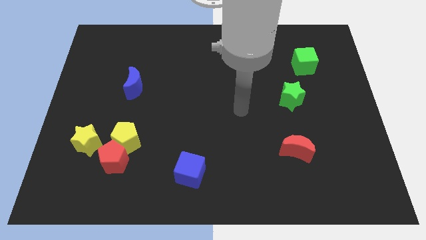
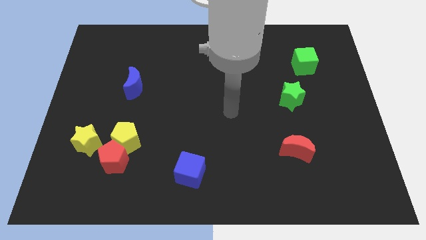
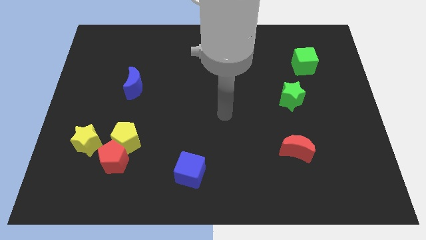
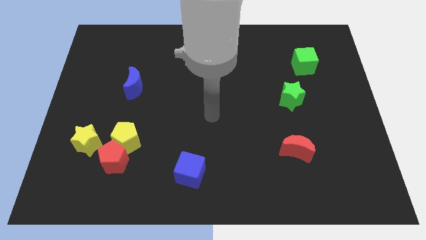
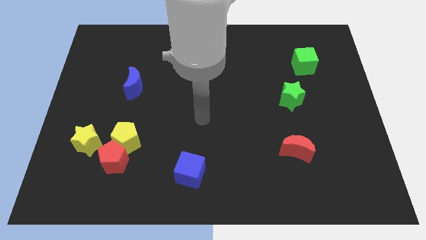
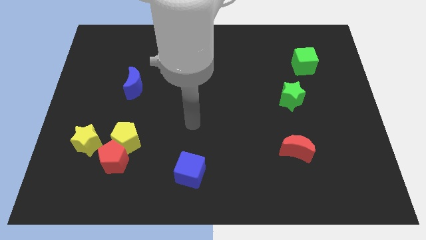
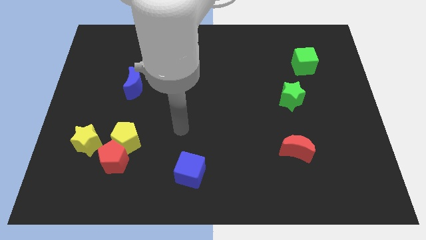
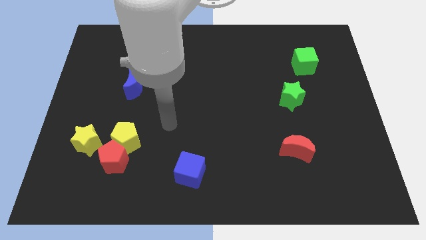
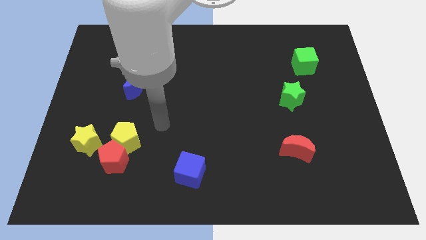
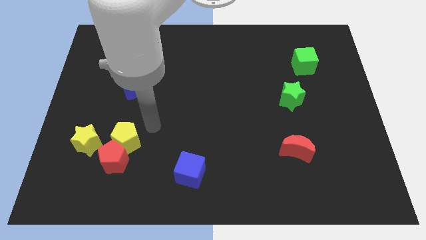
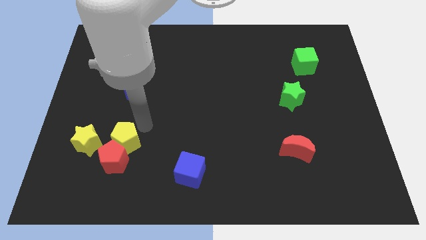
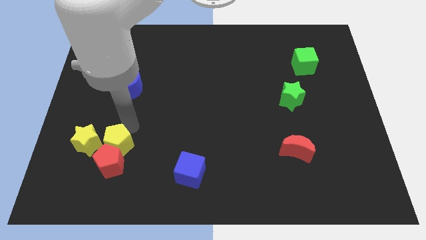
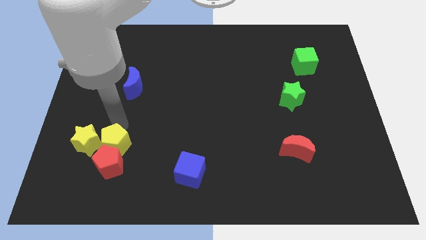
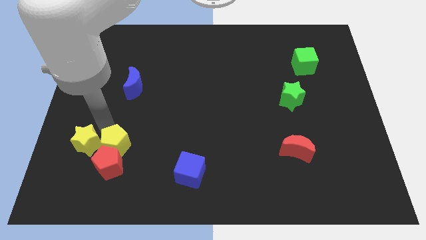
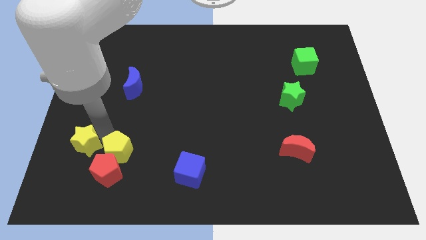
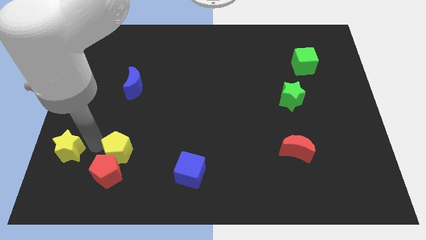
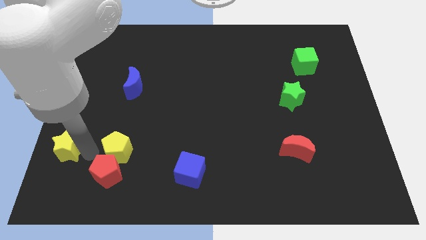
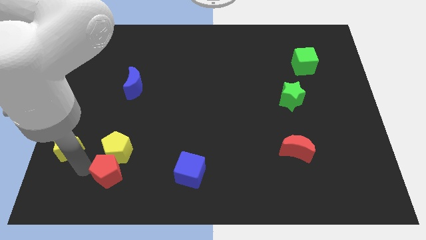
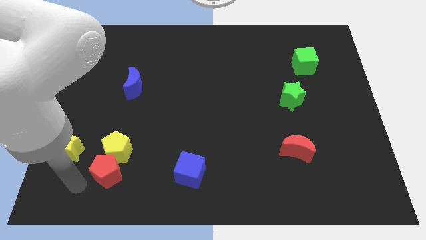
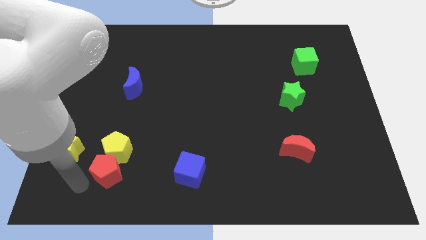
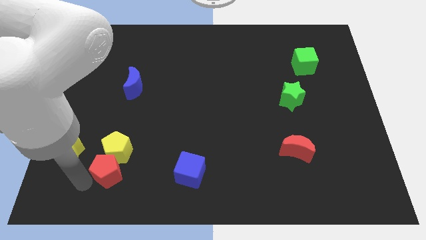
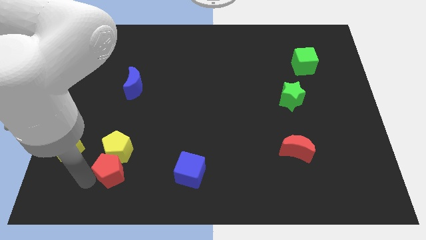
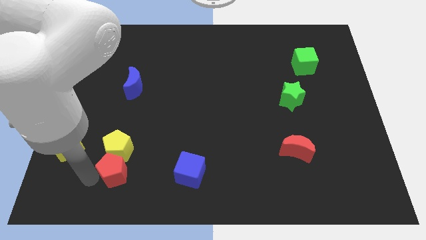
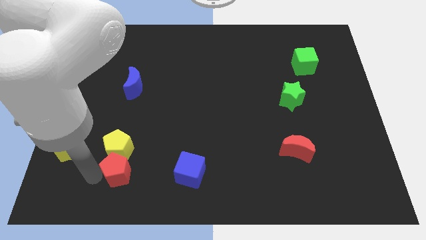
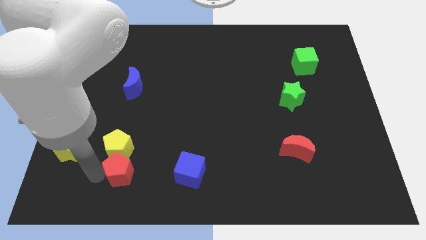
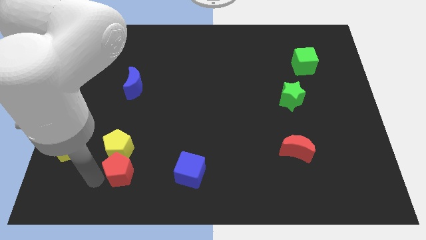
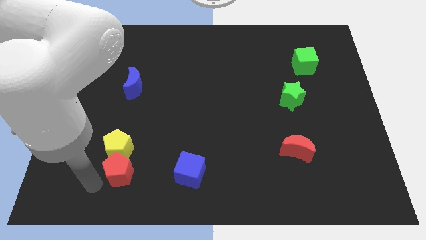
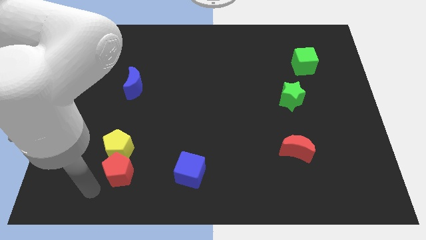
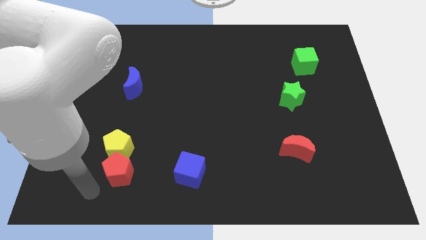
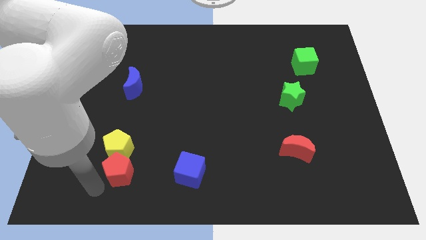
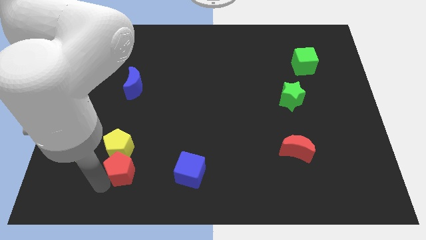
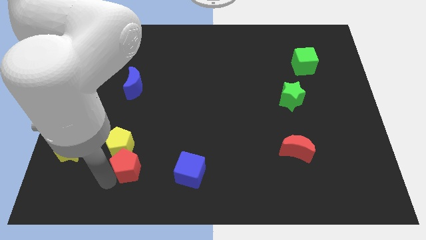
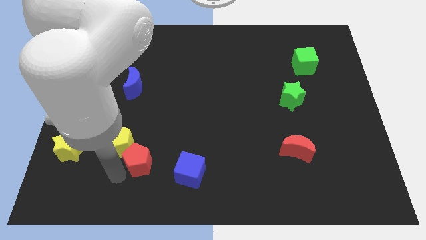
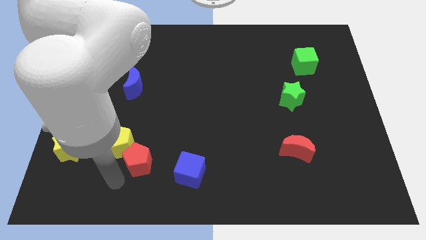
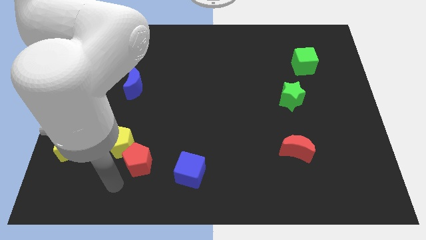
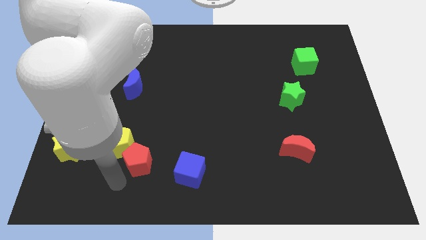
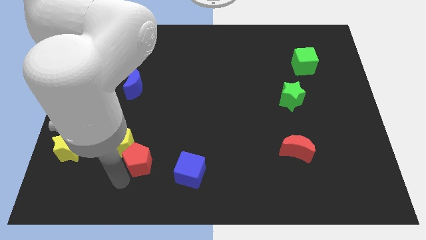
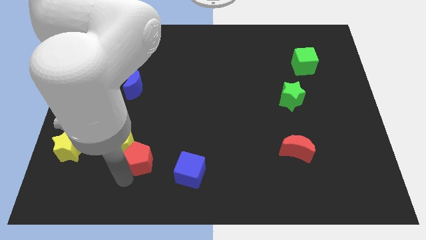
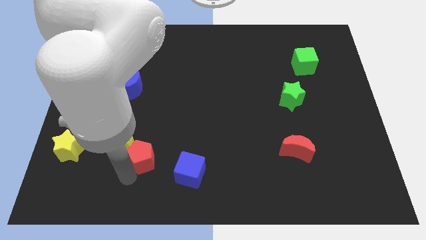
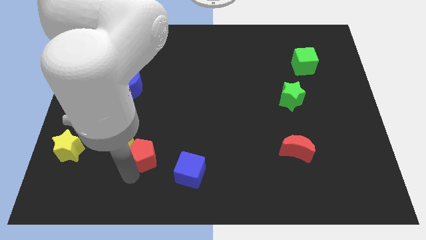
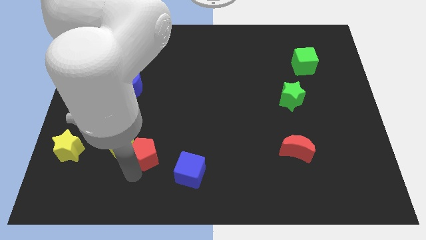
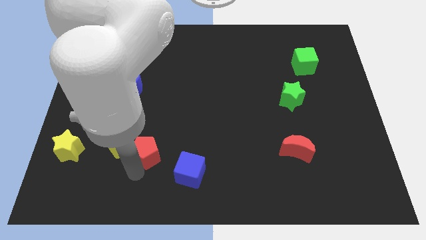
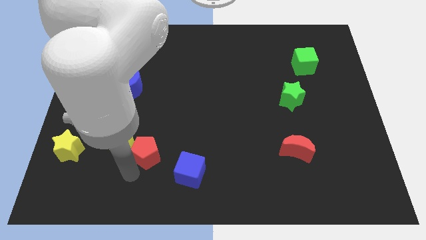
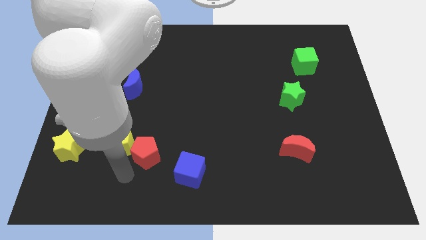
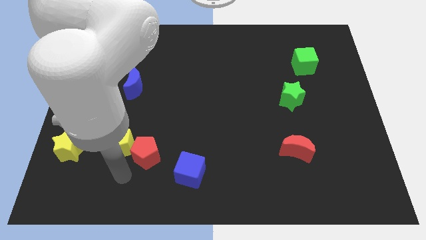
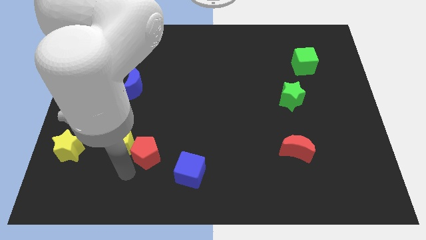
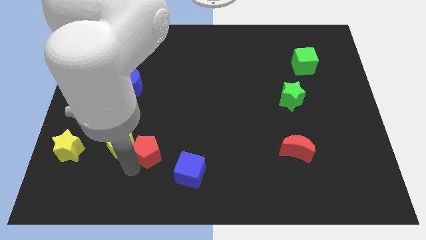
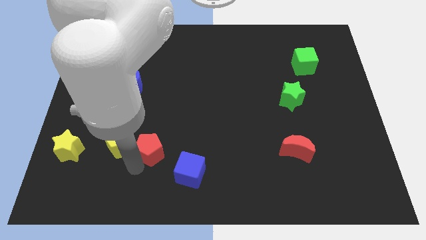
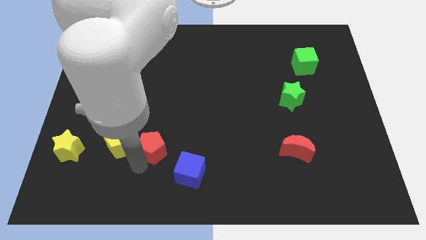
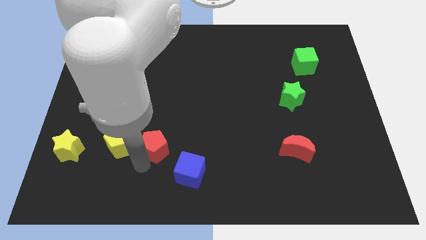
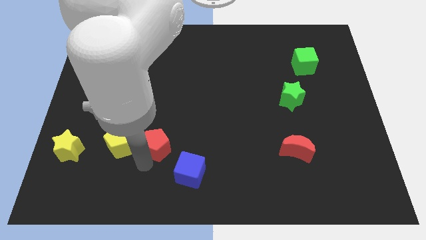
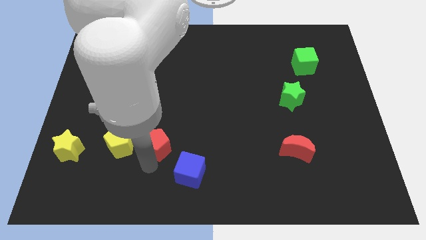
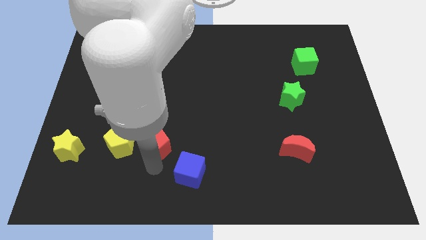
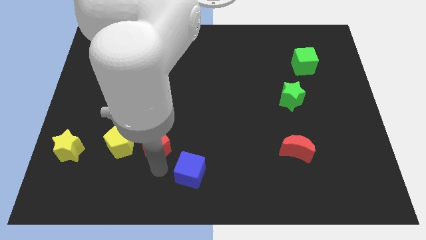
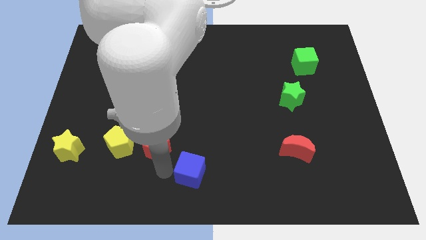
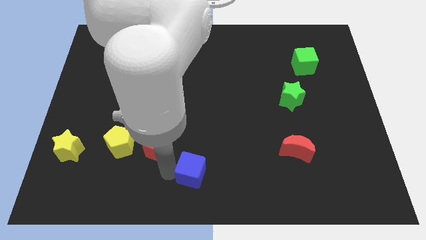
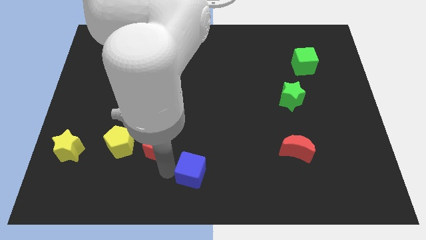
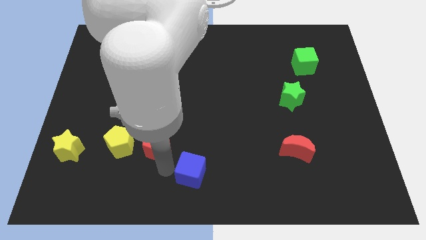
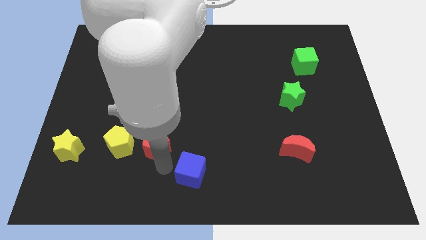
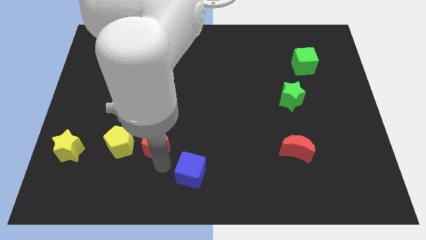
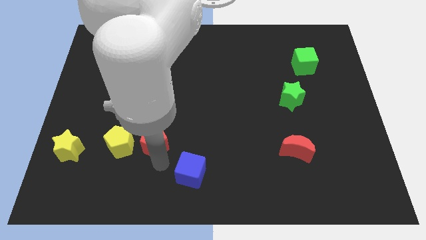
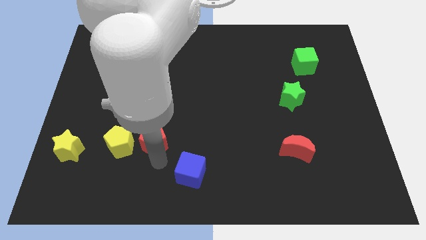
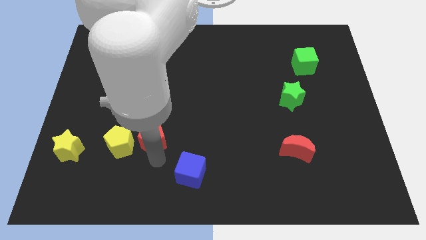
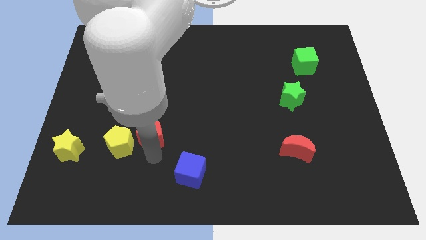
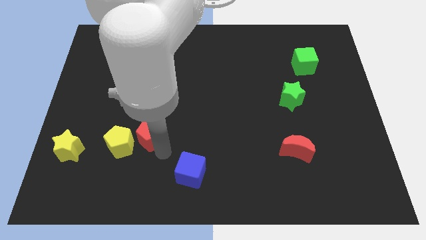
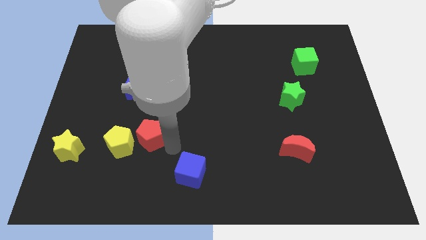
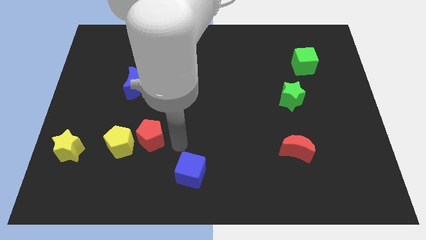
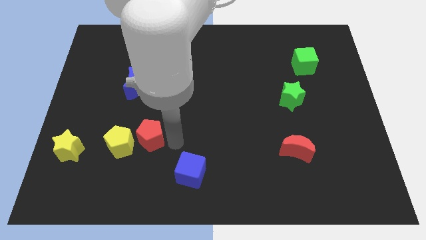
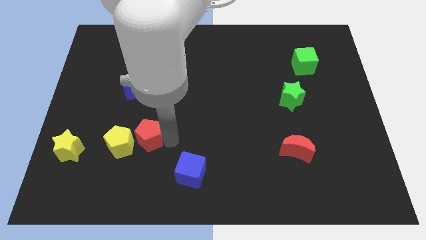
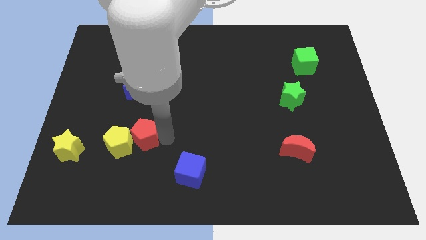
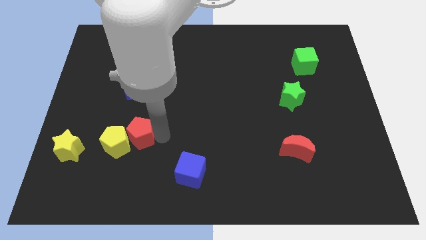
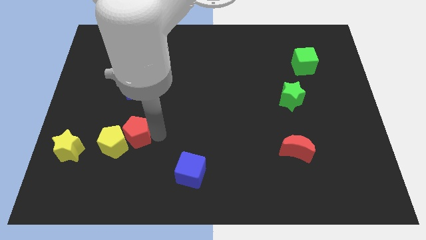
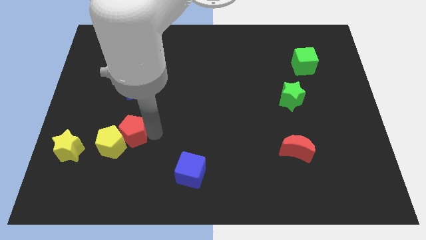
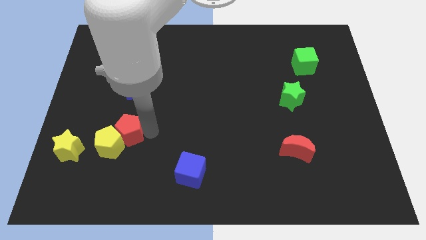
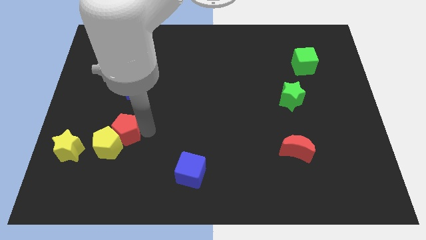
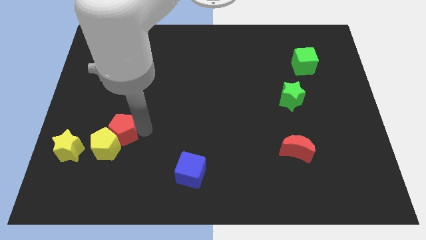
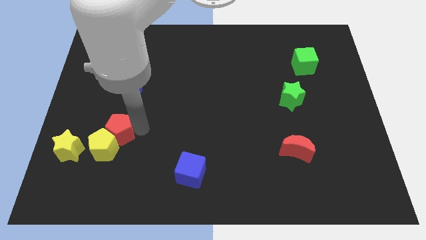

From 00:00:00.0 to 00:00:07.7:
push the red pentagon to the top right side of the yellow star
